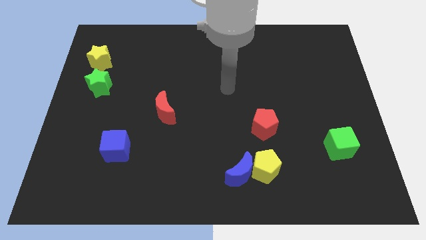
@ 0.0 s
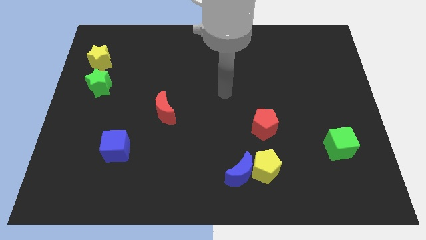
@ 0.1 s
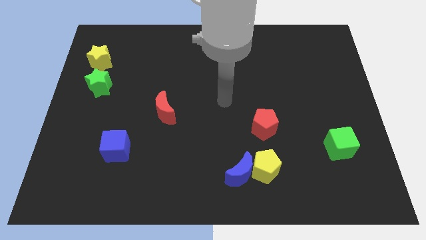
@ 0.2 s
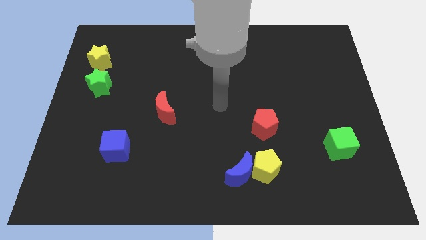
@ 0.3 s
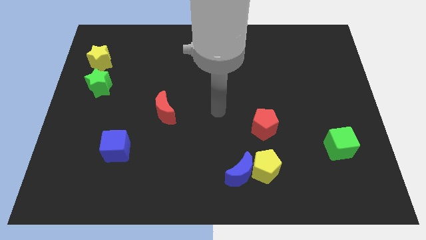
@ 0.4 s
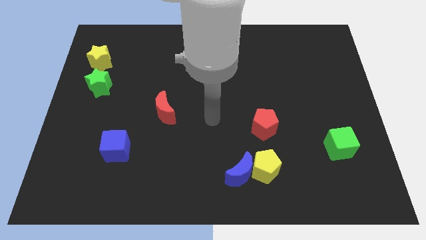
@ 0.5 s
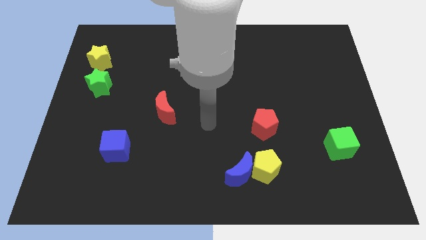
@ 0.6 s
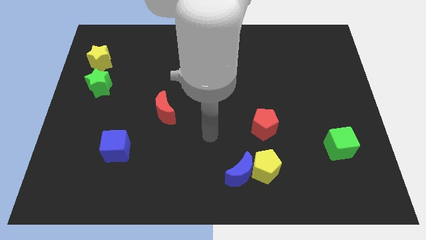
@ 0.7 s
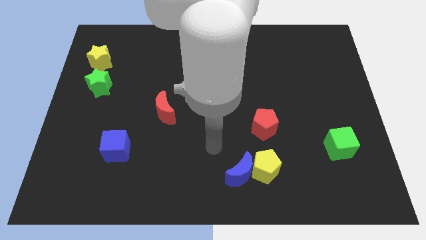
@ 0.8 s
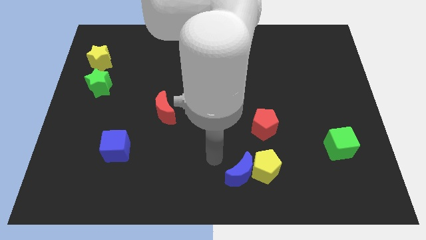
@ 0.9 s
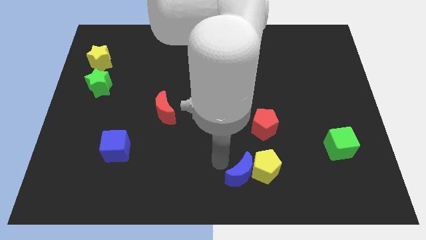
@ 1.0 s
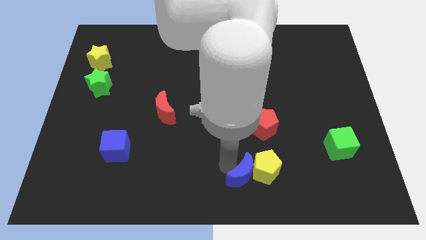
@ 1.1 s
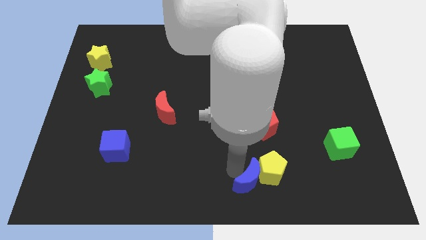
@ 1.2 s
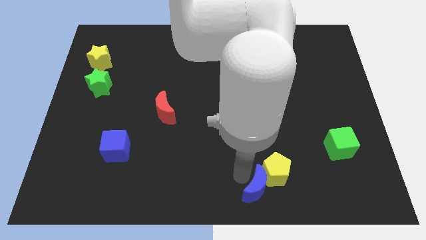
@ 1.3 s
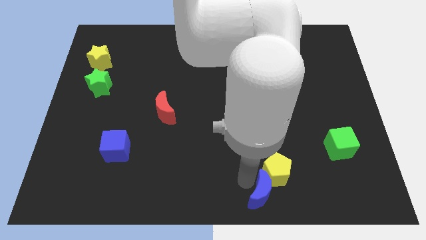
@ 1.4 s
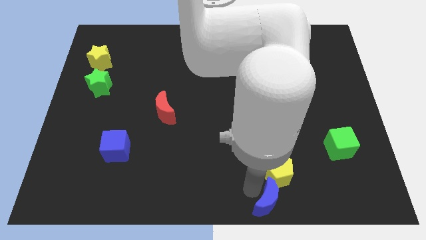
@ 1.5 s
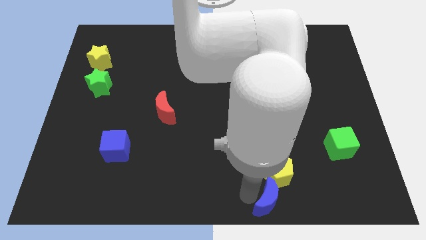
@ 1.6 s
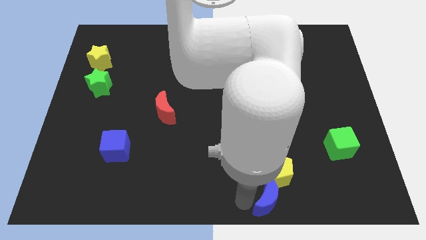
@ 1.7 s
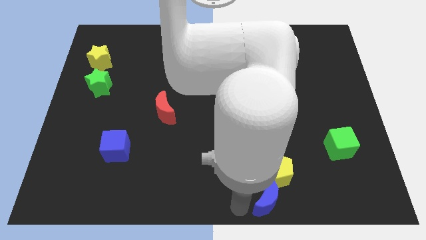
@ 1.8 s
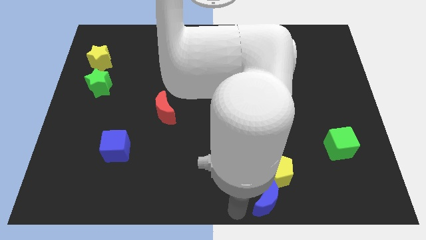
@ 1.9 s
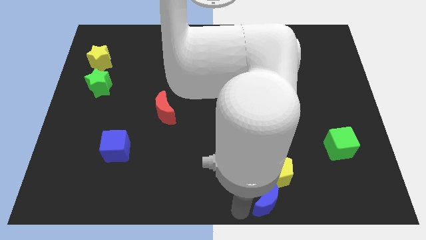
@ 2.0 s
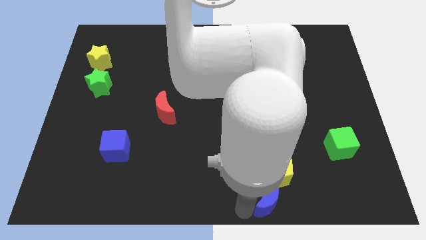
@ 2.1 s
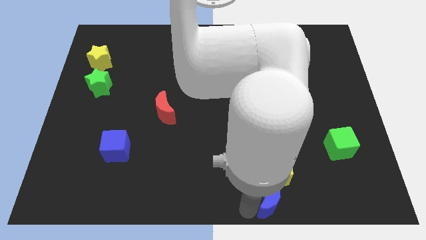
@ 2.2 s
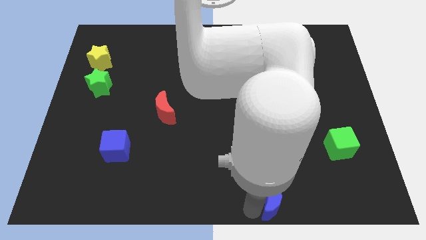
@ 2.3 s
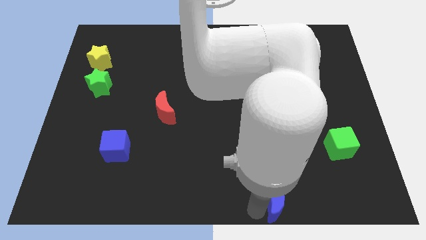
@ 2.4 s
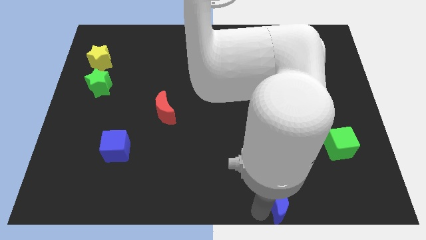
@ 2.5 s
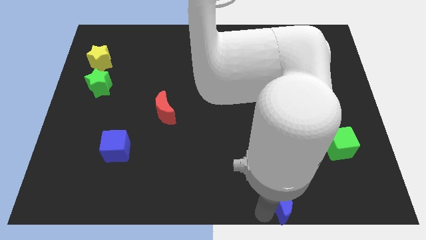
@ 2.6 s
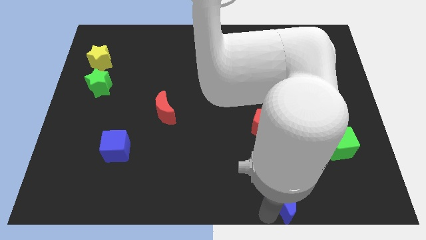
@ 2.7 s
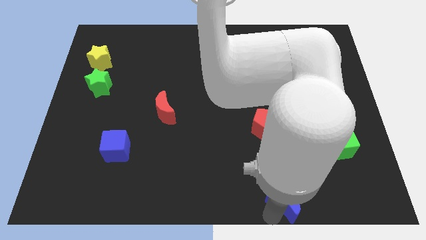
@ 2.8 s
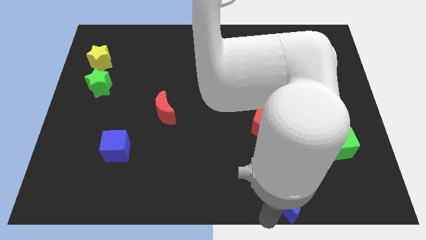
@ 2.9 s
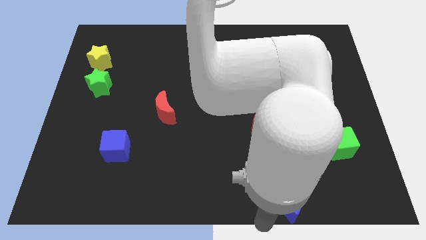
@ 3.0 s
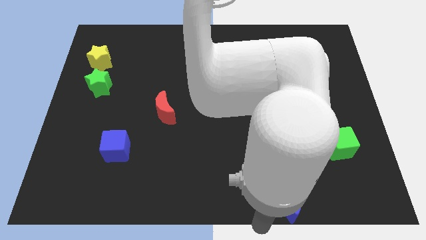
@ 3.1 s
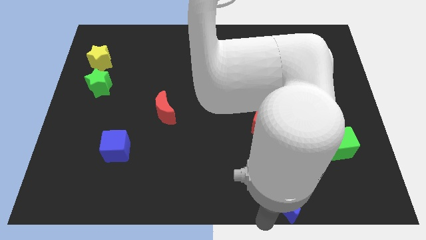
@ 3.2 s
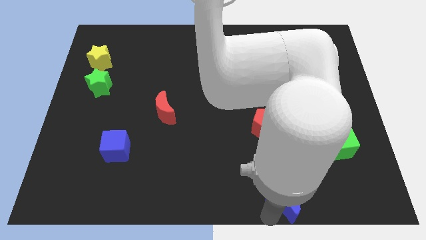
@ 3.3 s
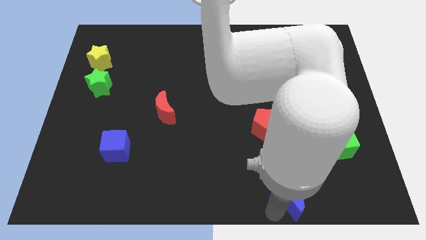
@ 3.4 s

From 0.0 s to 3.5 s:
slightly move the blue moon right

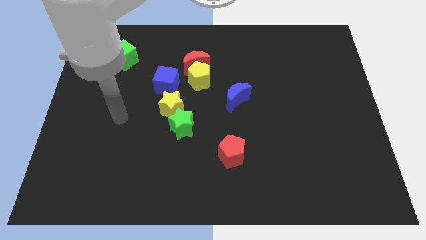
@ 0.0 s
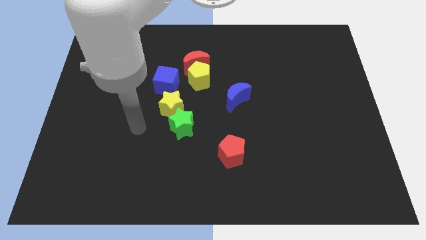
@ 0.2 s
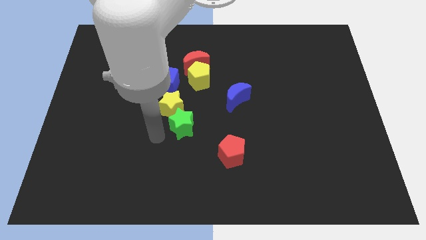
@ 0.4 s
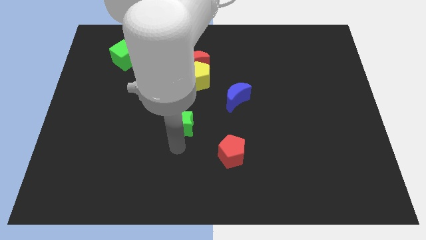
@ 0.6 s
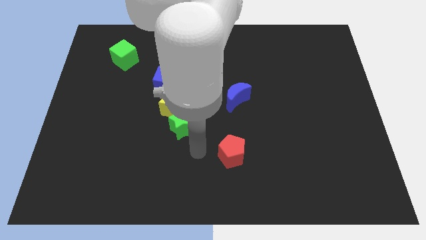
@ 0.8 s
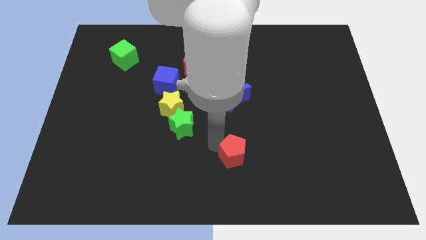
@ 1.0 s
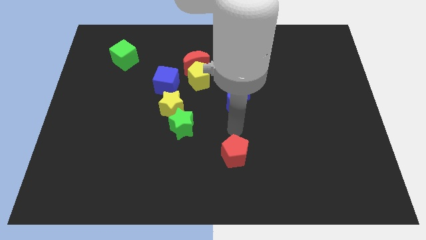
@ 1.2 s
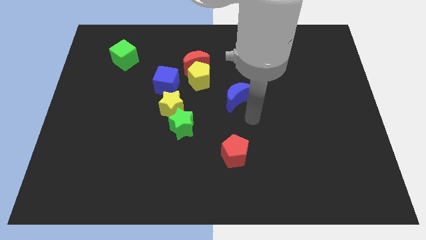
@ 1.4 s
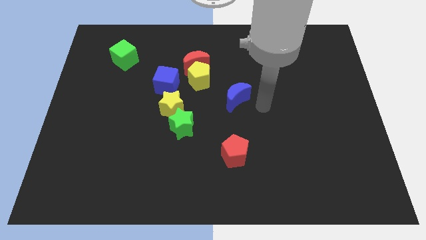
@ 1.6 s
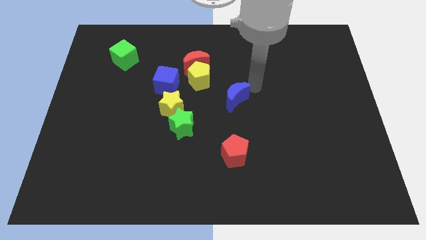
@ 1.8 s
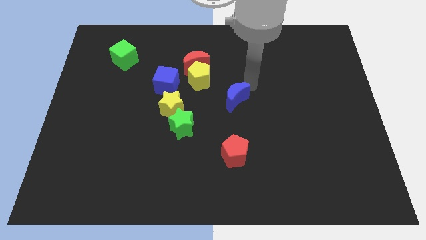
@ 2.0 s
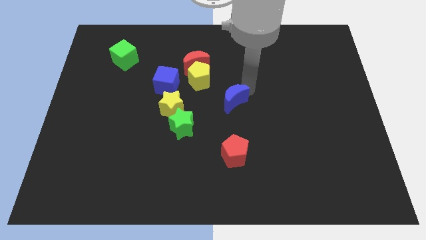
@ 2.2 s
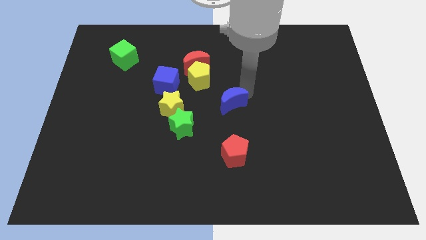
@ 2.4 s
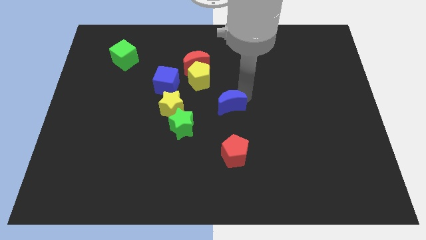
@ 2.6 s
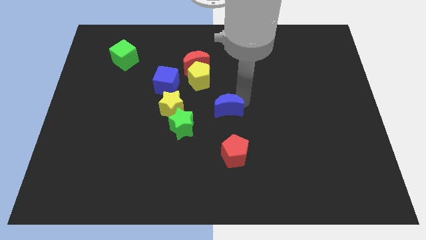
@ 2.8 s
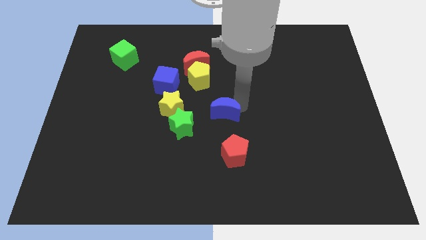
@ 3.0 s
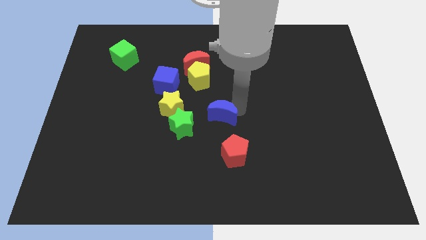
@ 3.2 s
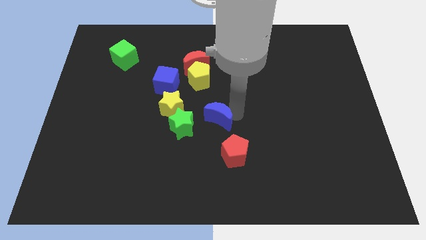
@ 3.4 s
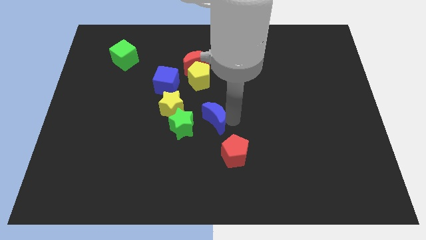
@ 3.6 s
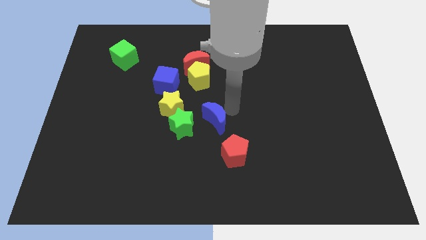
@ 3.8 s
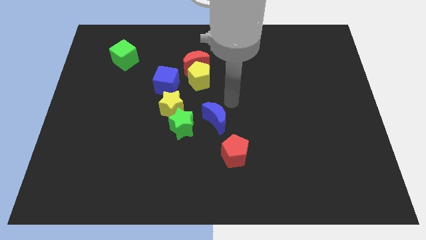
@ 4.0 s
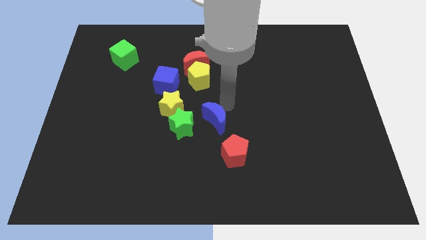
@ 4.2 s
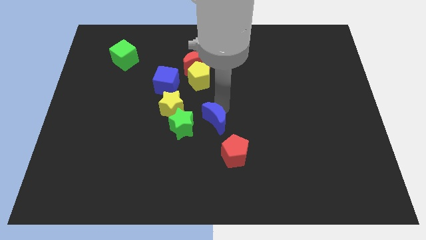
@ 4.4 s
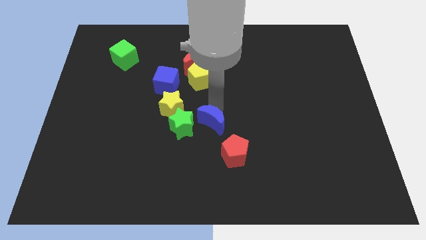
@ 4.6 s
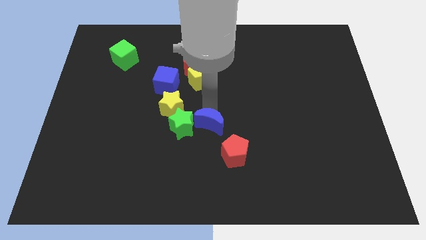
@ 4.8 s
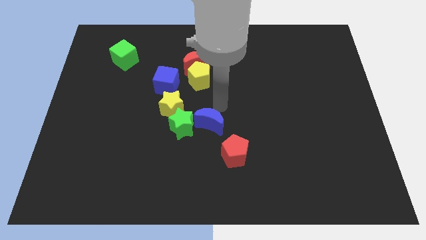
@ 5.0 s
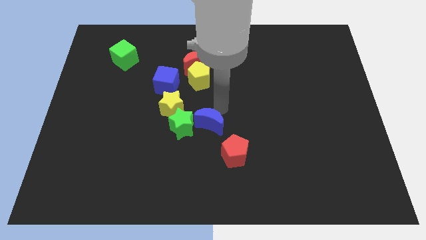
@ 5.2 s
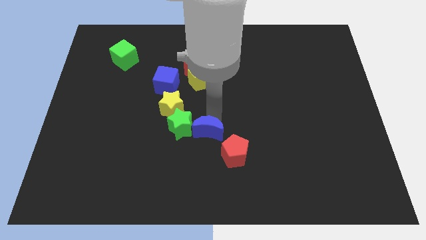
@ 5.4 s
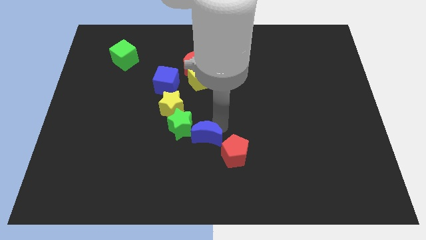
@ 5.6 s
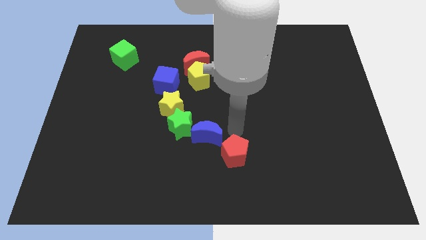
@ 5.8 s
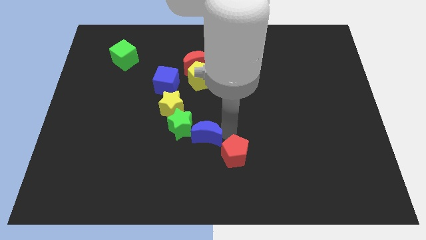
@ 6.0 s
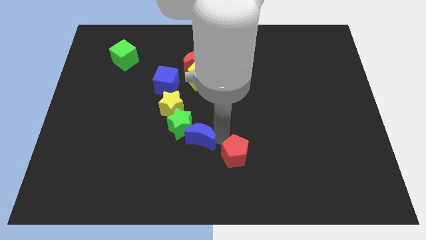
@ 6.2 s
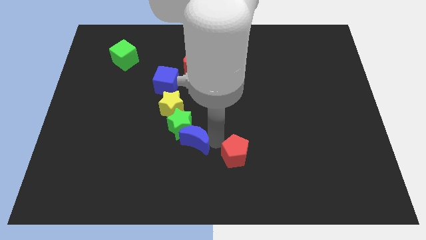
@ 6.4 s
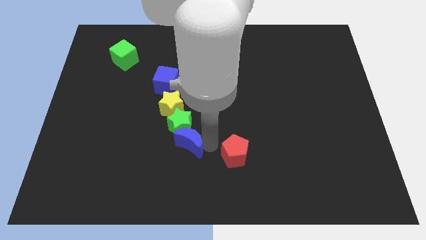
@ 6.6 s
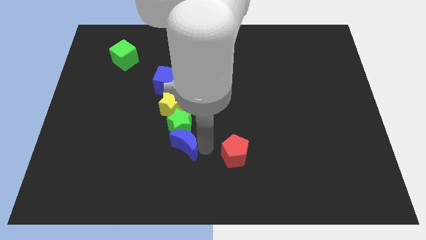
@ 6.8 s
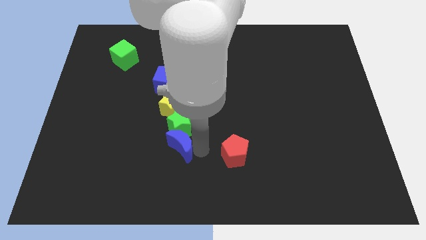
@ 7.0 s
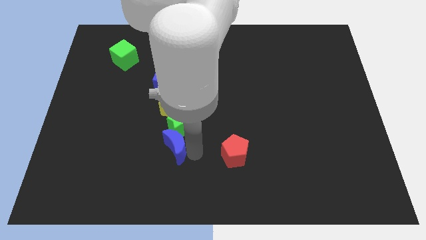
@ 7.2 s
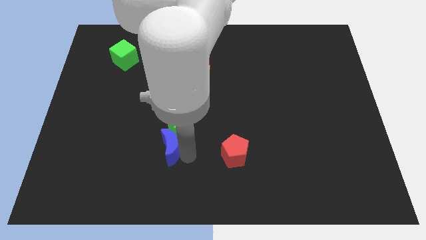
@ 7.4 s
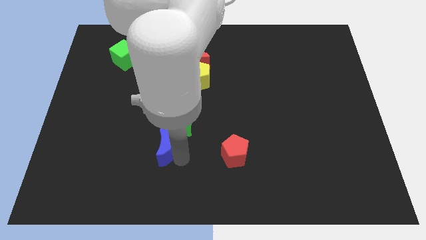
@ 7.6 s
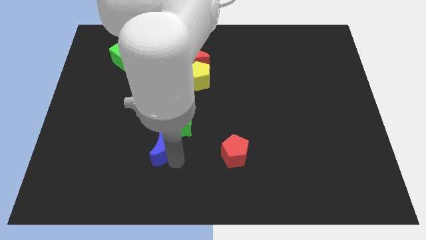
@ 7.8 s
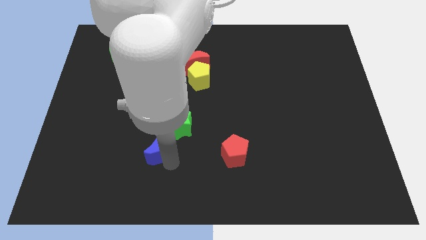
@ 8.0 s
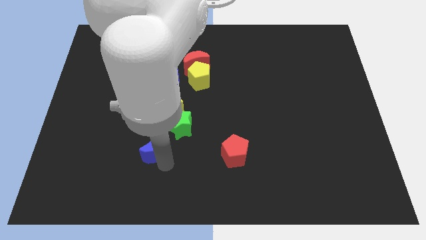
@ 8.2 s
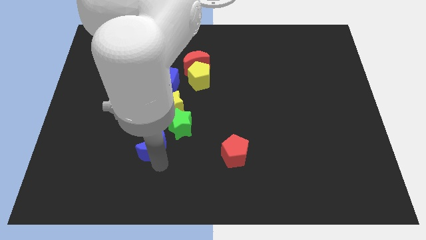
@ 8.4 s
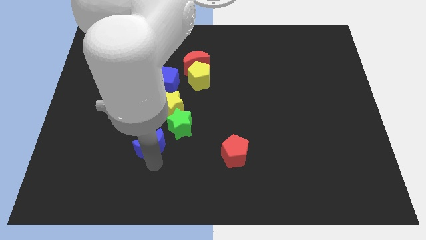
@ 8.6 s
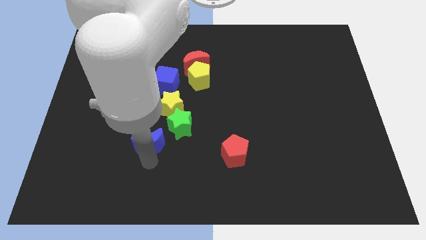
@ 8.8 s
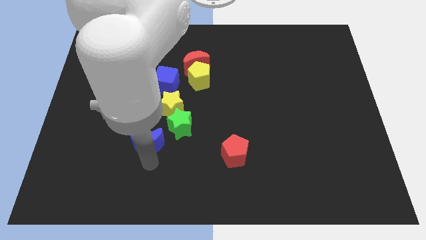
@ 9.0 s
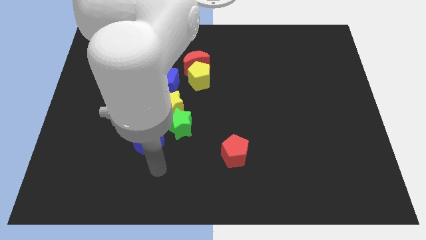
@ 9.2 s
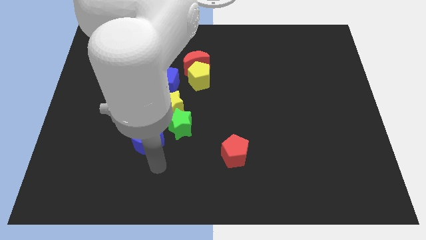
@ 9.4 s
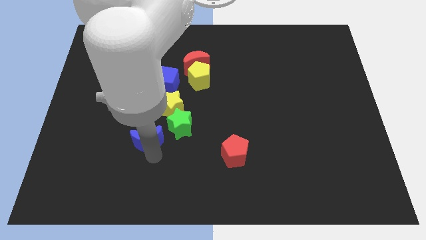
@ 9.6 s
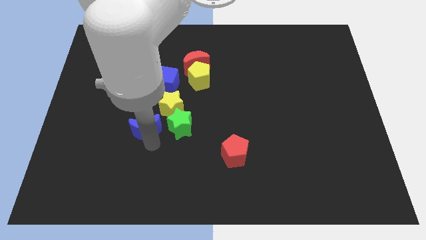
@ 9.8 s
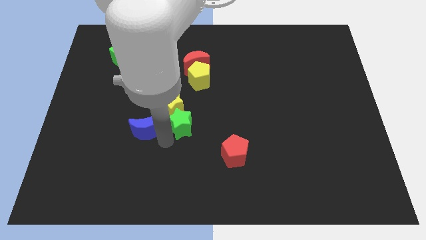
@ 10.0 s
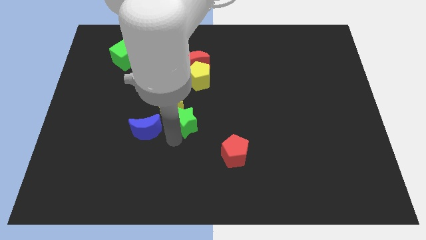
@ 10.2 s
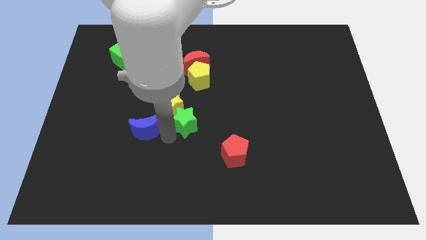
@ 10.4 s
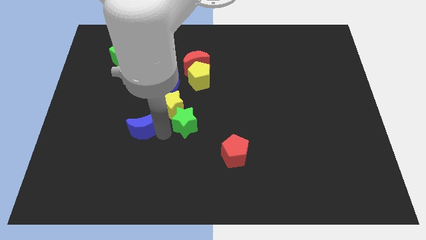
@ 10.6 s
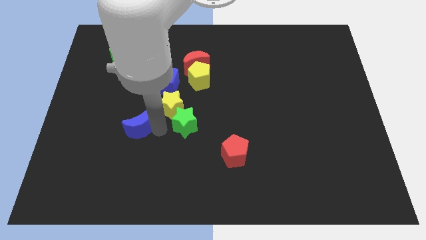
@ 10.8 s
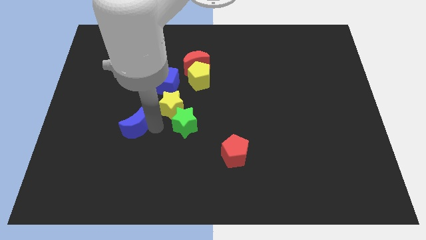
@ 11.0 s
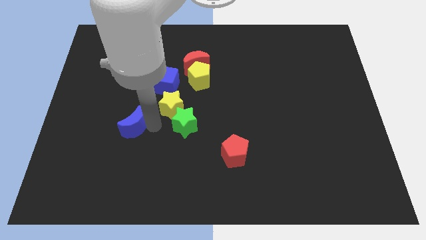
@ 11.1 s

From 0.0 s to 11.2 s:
push the blue moon to the left
